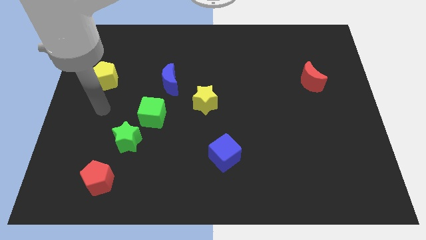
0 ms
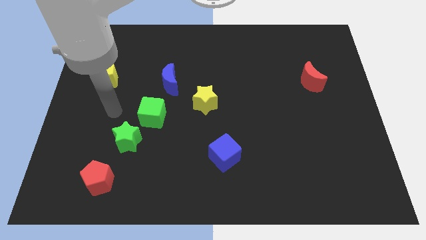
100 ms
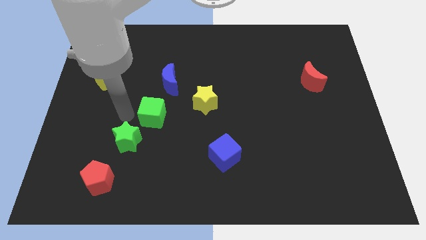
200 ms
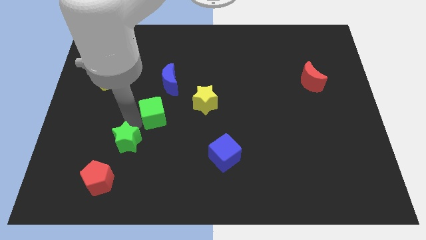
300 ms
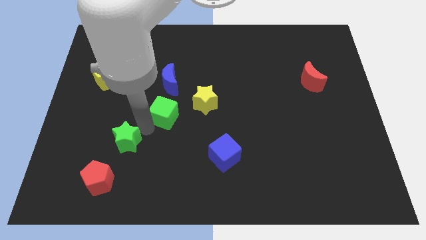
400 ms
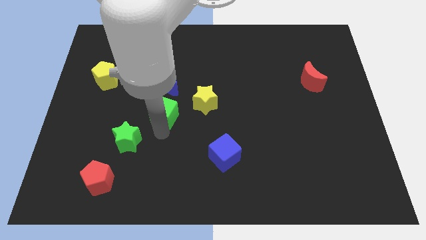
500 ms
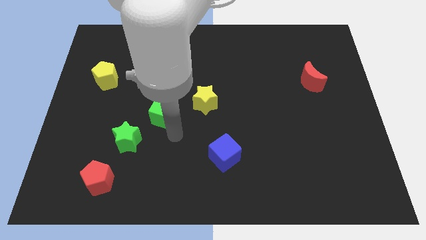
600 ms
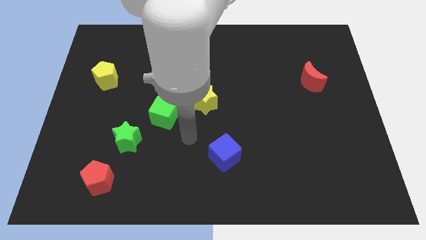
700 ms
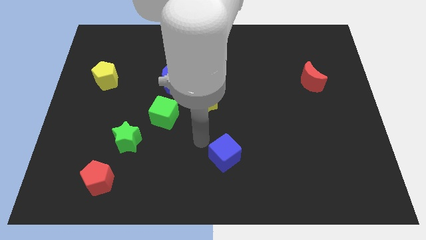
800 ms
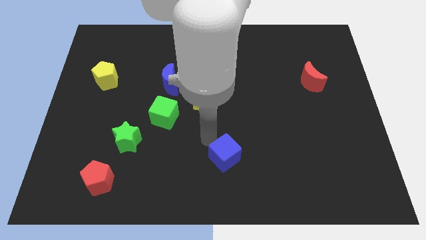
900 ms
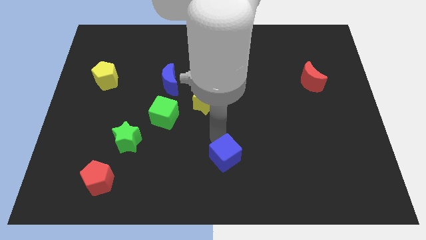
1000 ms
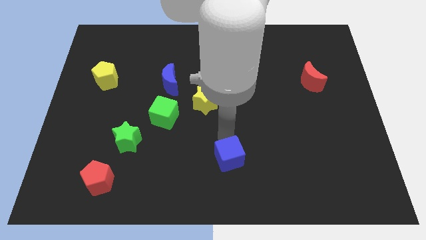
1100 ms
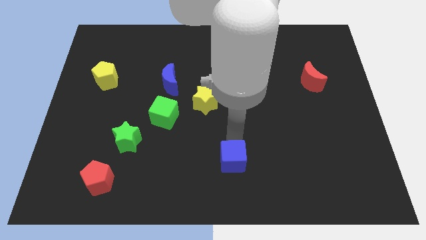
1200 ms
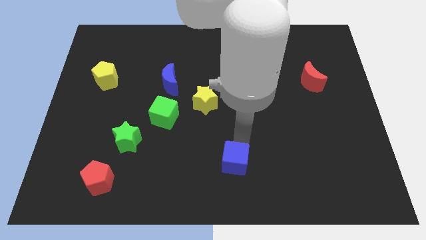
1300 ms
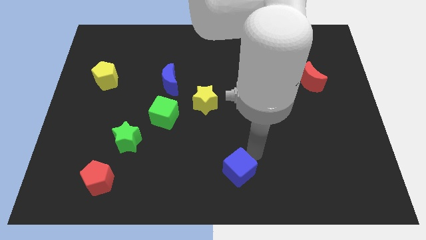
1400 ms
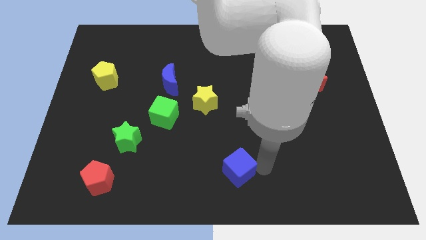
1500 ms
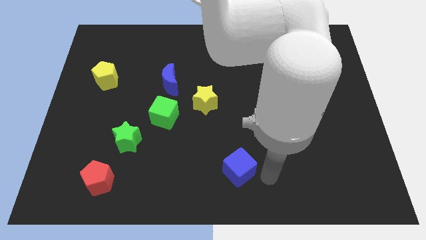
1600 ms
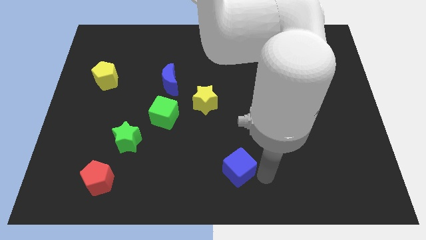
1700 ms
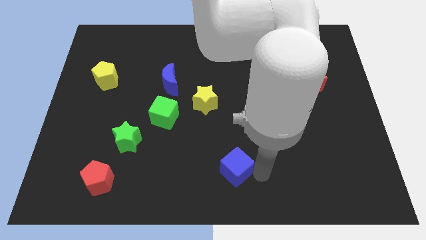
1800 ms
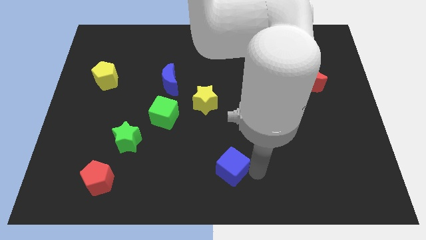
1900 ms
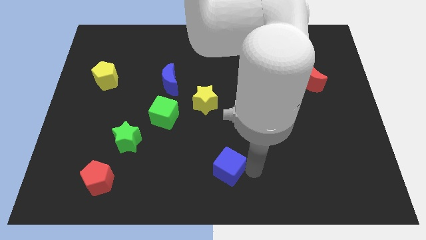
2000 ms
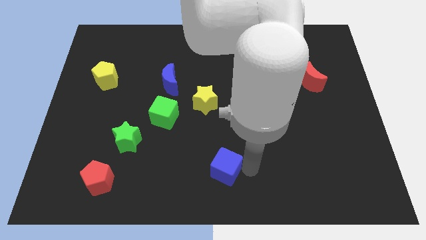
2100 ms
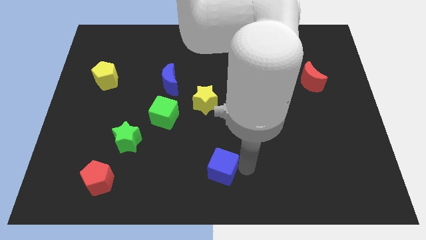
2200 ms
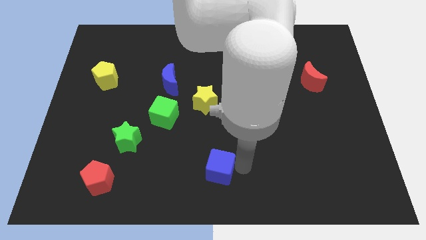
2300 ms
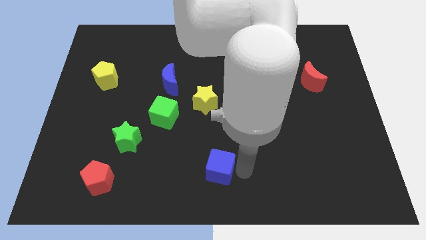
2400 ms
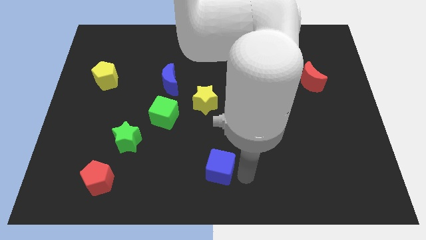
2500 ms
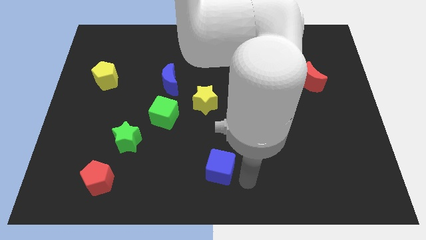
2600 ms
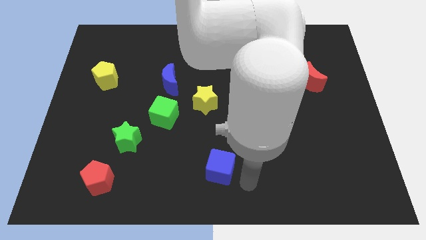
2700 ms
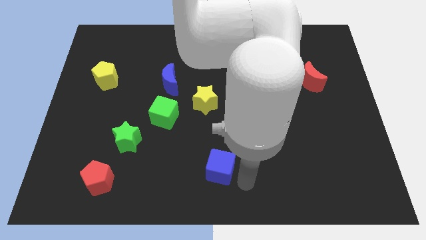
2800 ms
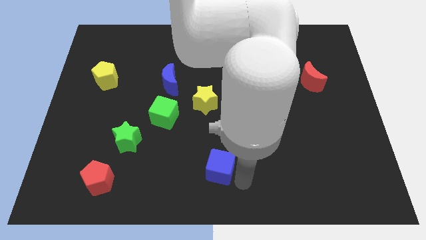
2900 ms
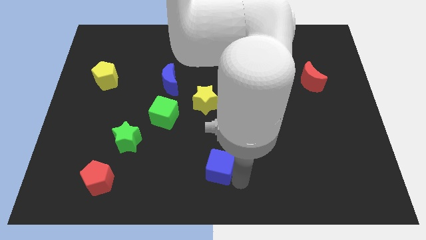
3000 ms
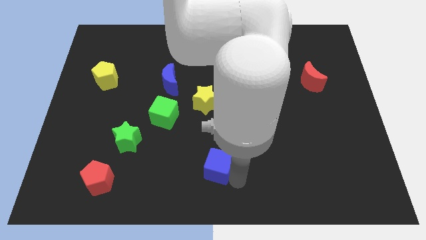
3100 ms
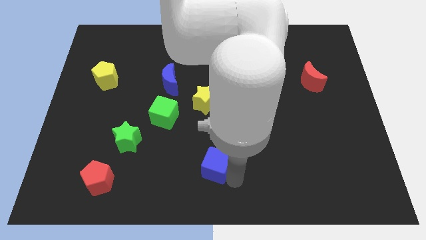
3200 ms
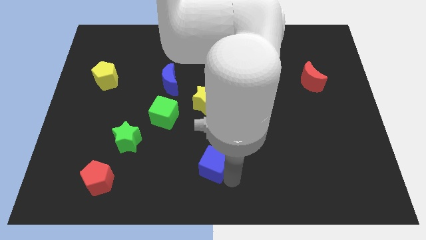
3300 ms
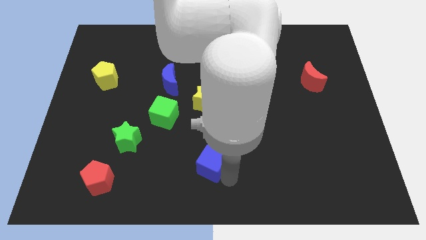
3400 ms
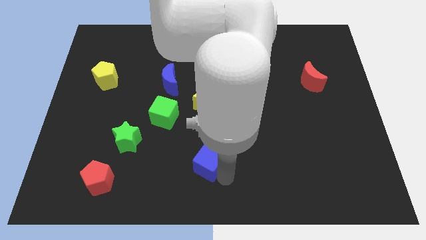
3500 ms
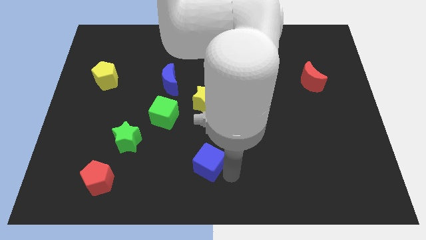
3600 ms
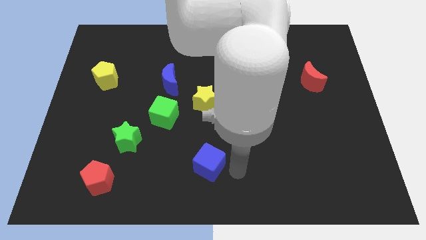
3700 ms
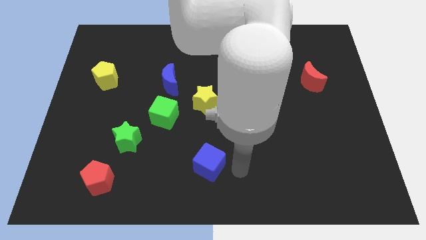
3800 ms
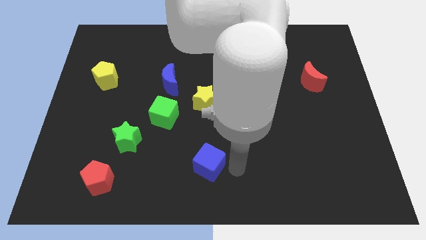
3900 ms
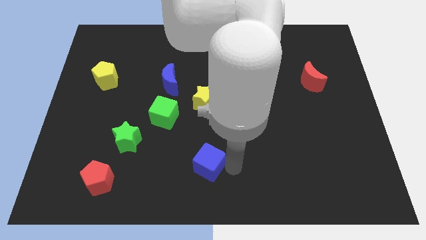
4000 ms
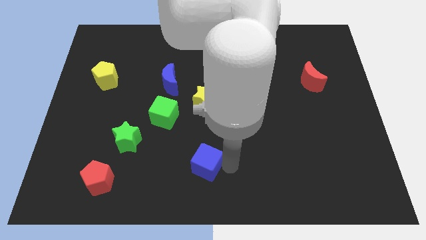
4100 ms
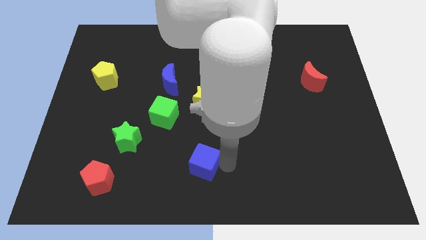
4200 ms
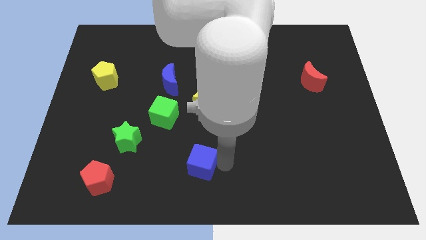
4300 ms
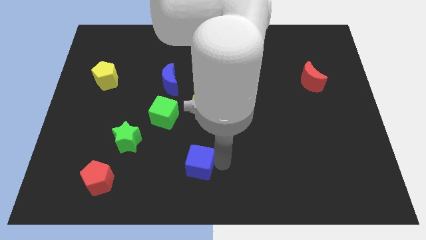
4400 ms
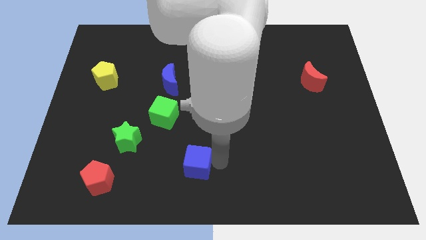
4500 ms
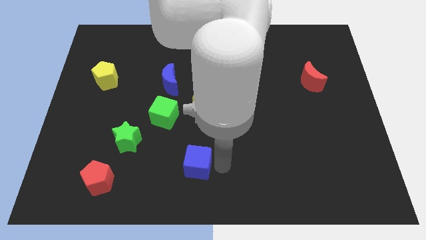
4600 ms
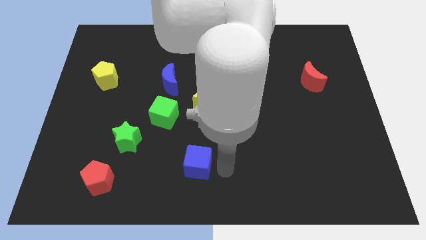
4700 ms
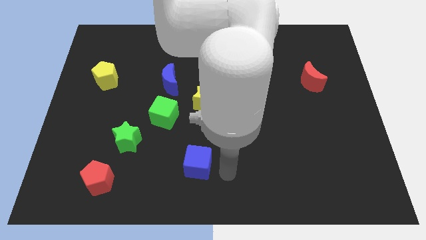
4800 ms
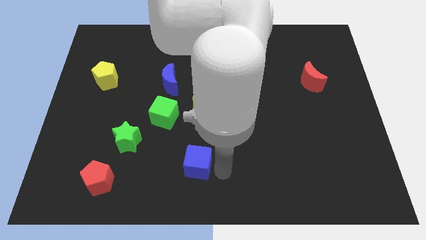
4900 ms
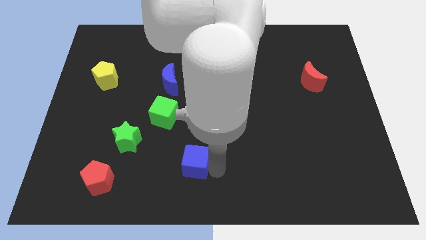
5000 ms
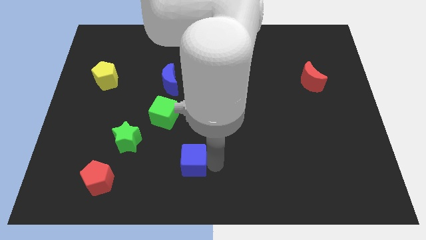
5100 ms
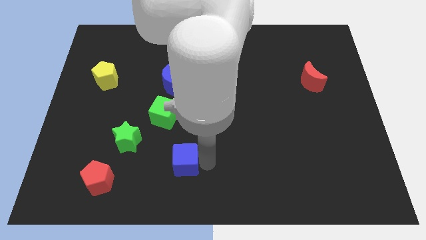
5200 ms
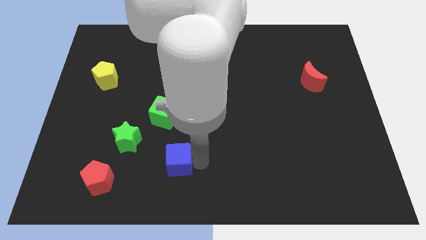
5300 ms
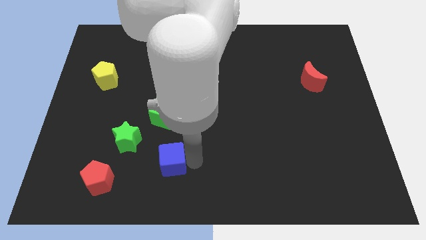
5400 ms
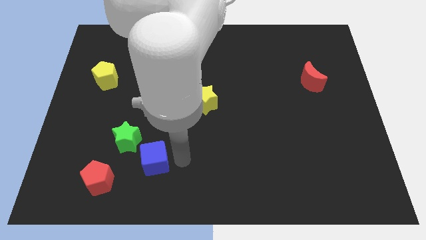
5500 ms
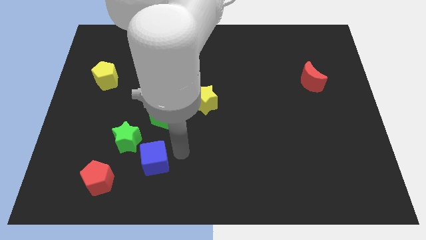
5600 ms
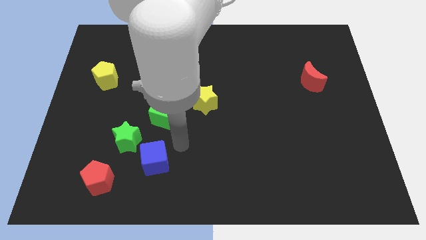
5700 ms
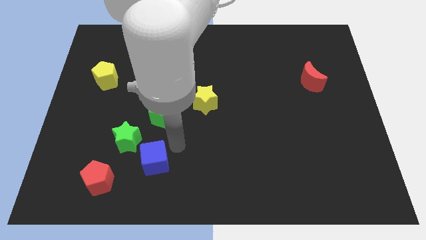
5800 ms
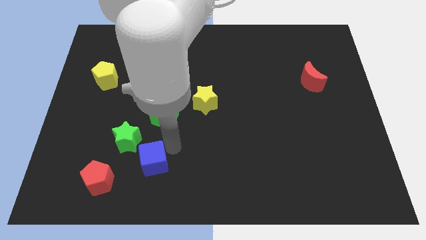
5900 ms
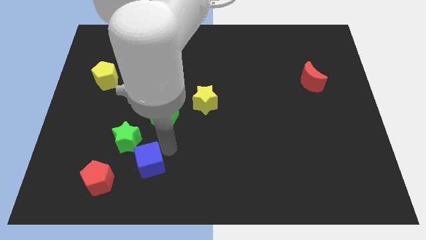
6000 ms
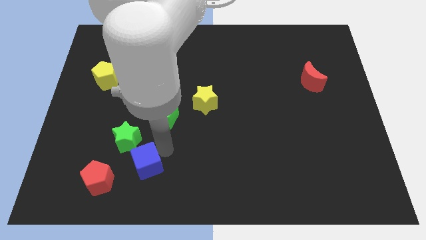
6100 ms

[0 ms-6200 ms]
slide the blue cube to the bottom of the green star
